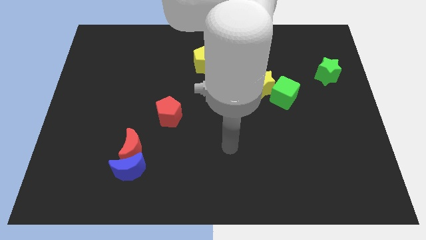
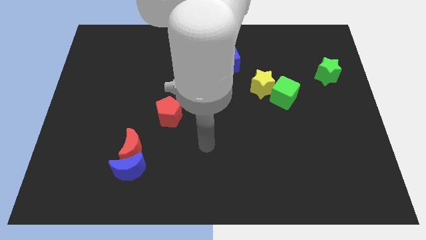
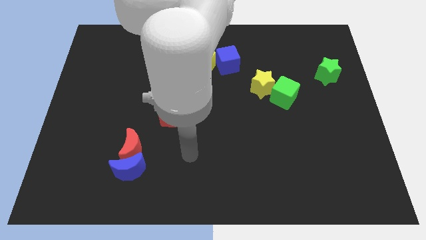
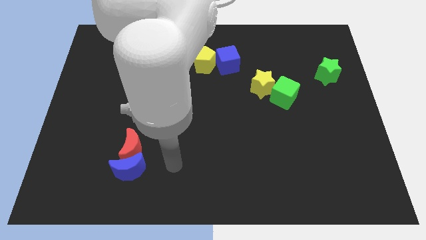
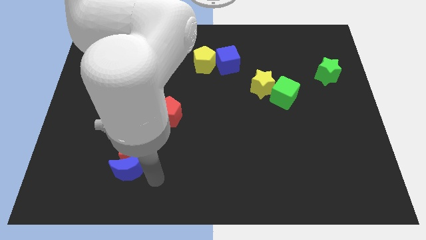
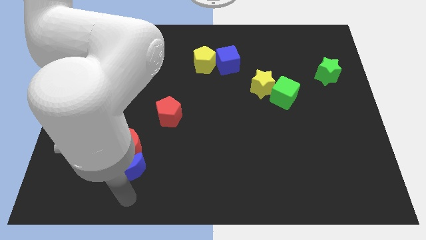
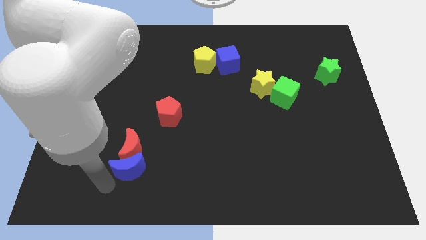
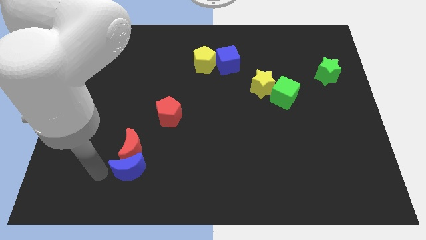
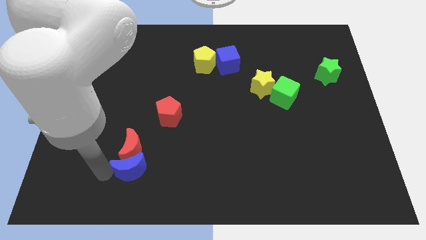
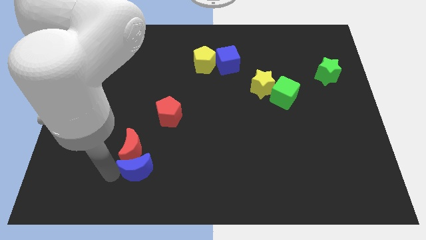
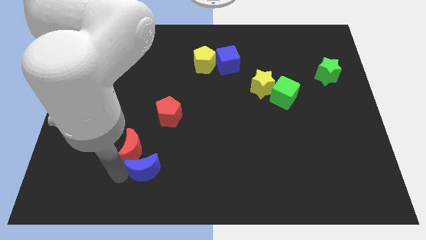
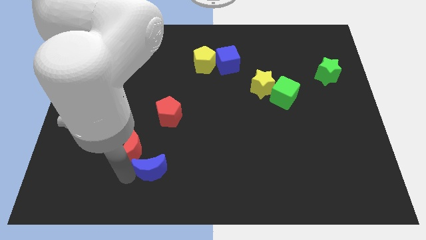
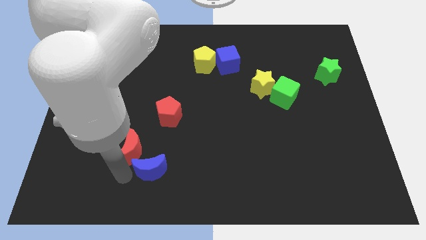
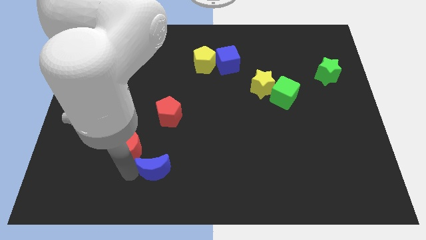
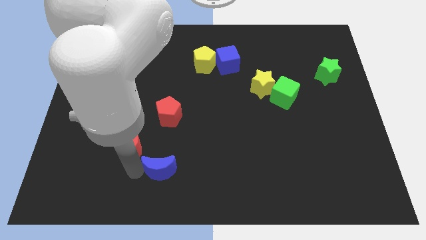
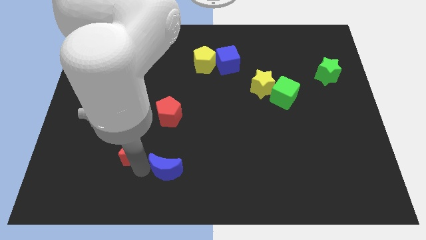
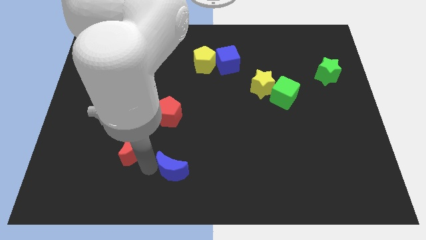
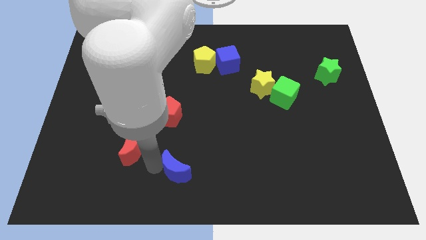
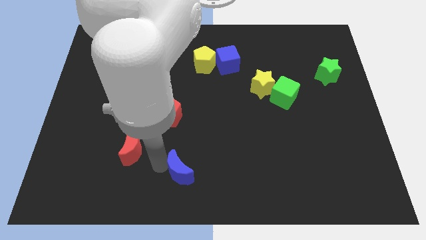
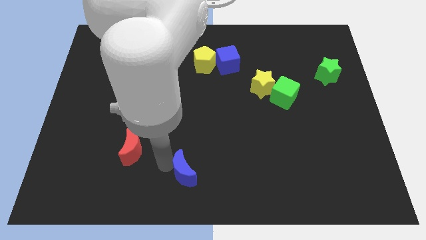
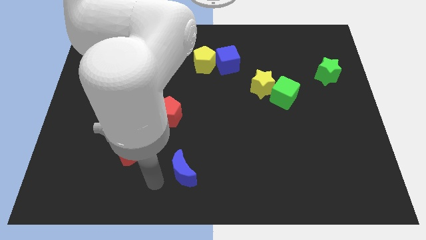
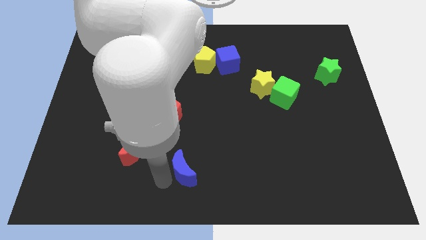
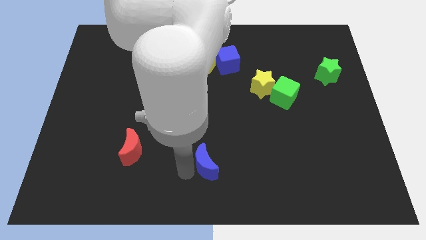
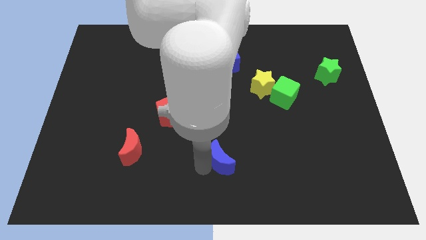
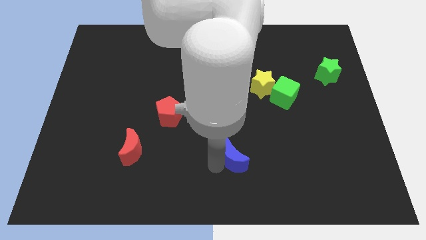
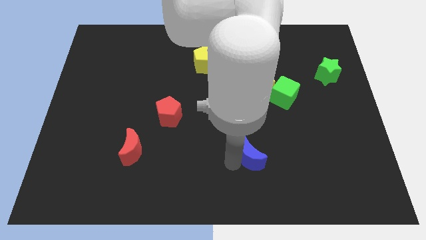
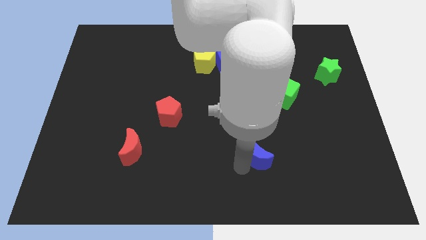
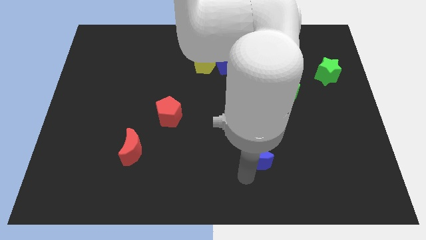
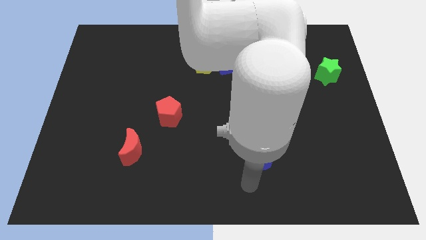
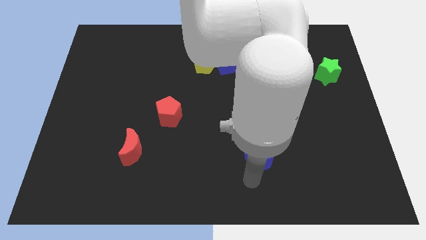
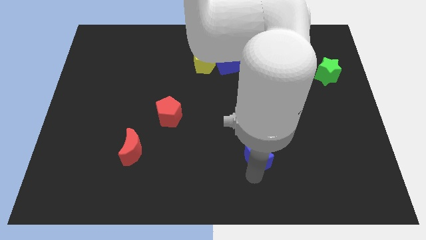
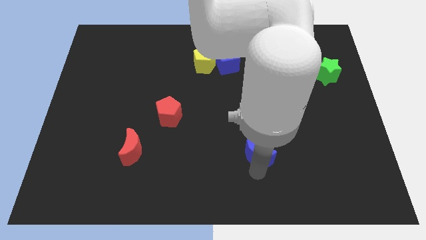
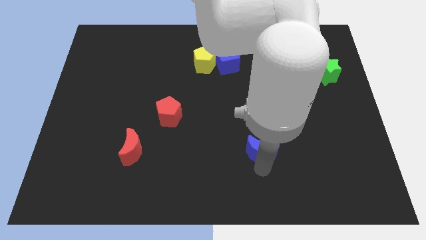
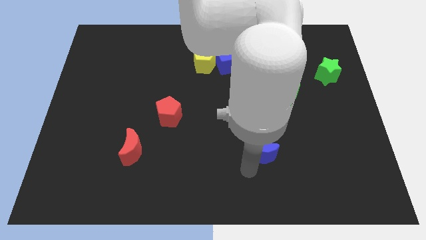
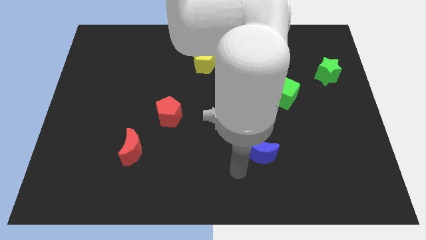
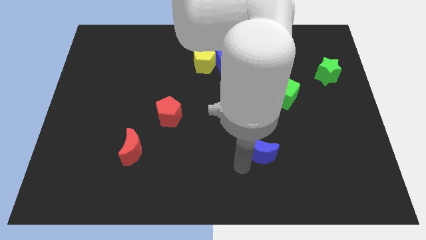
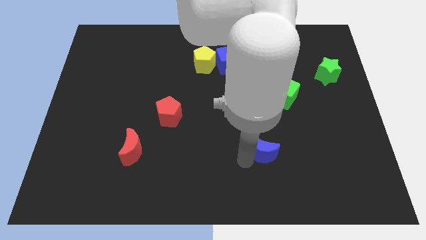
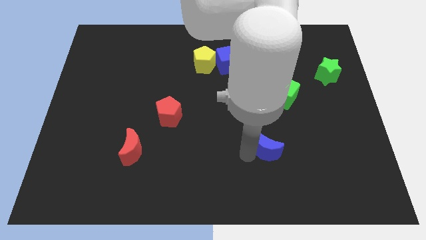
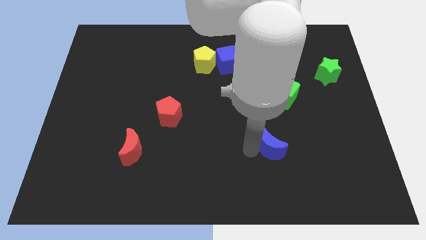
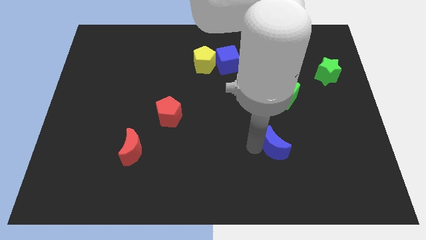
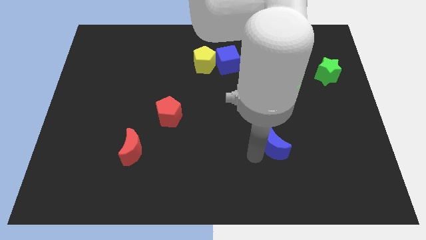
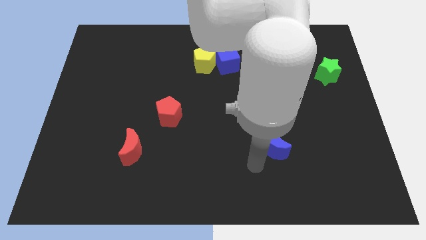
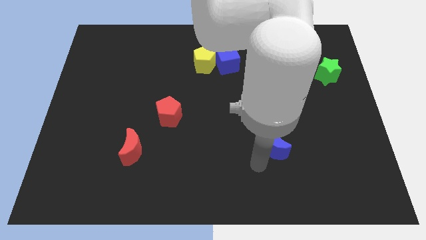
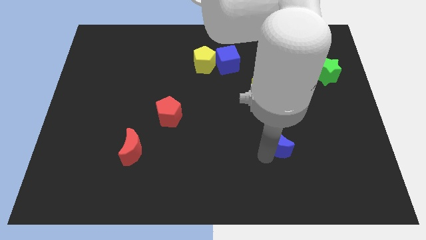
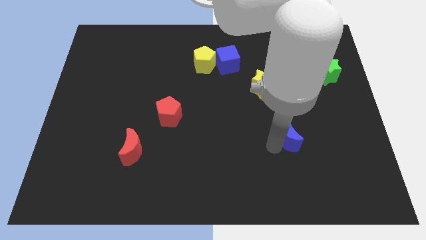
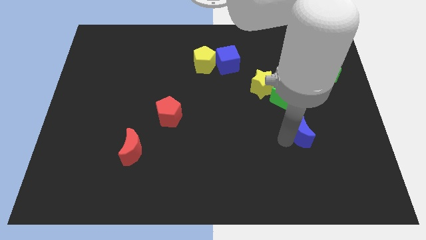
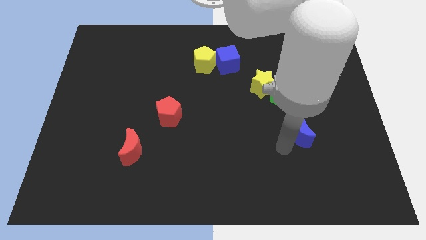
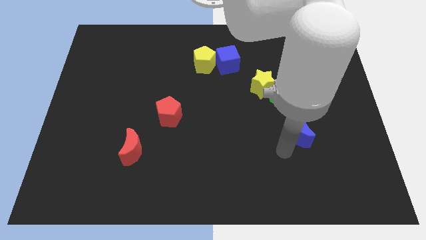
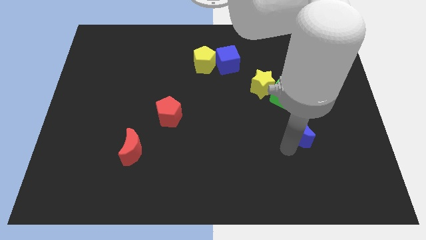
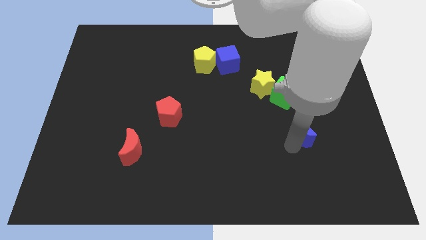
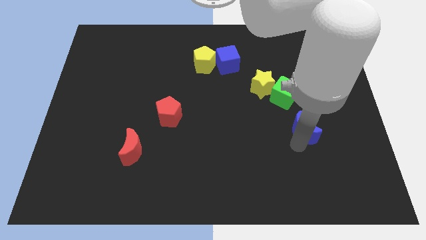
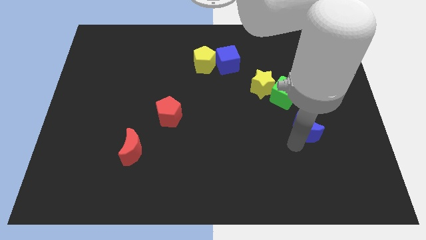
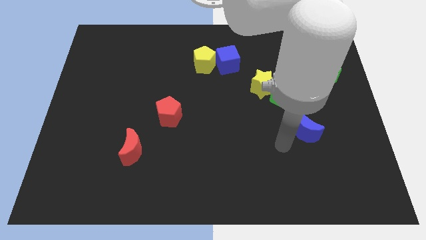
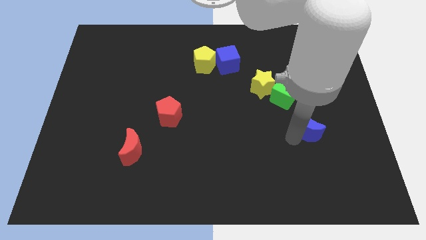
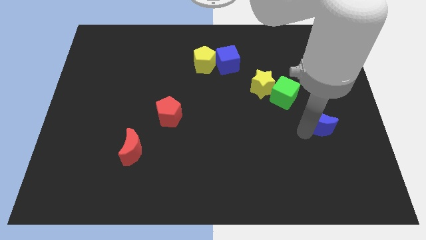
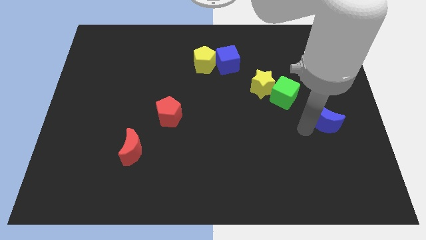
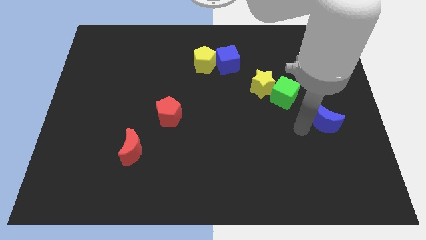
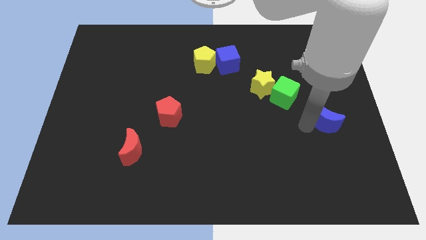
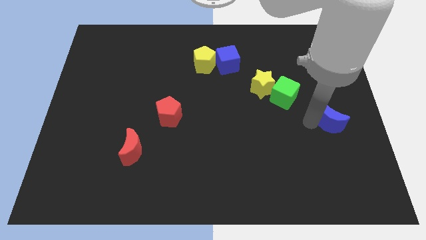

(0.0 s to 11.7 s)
put the blue moon to the right side
